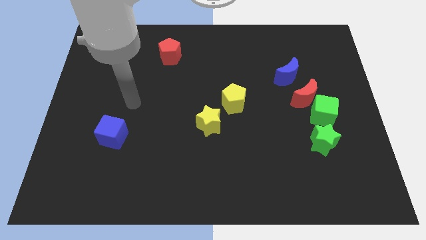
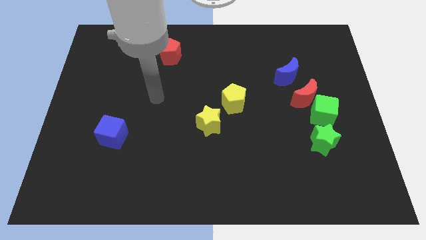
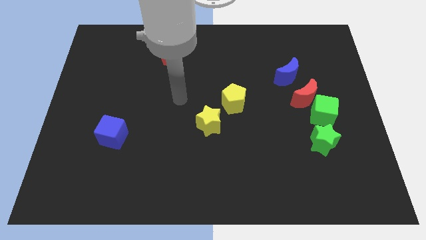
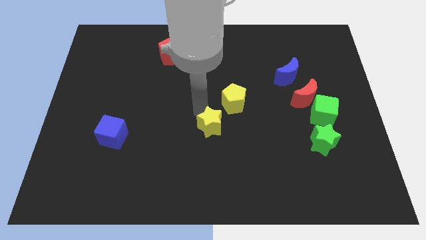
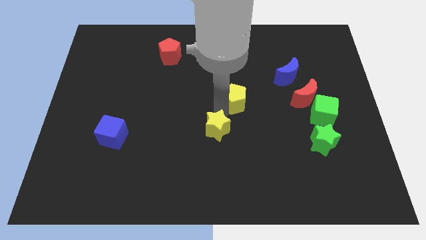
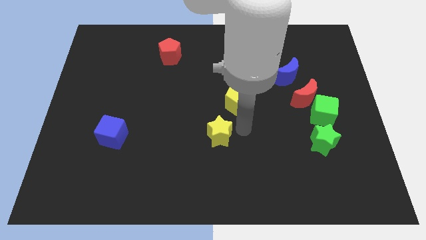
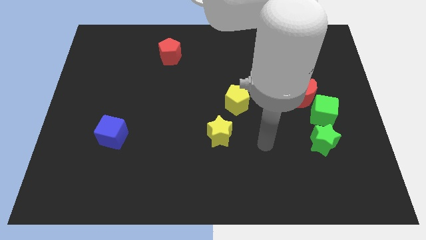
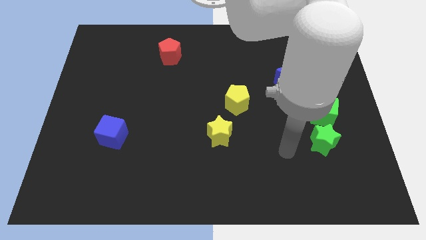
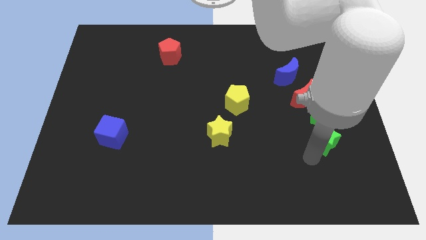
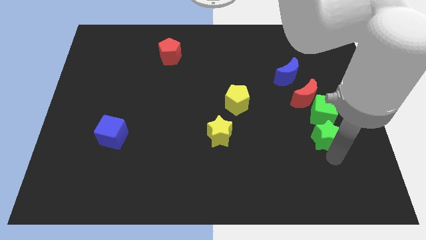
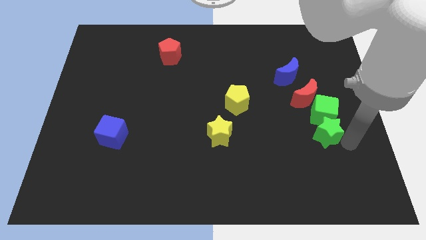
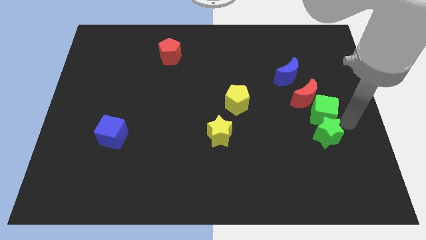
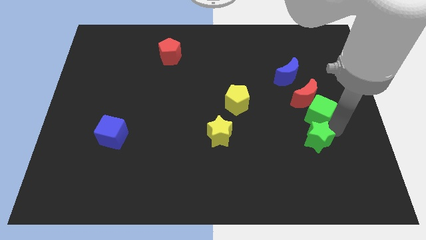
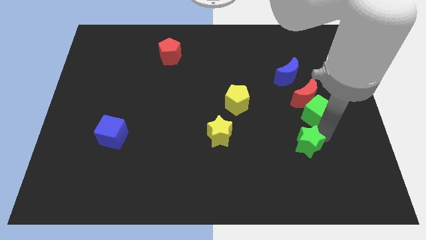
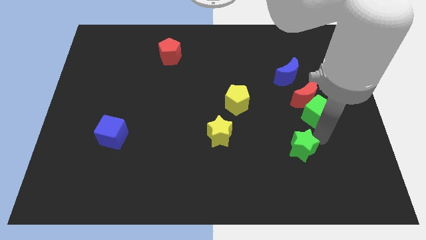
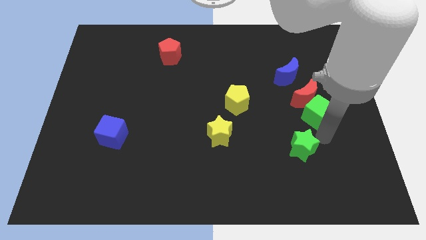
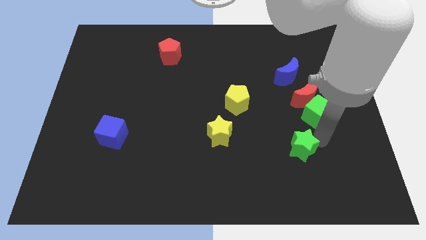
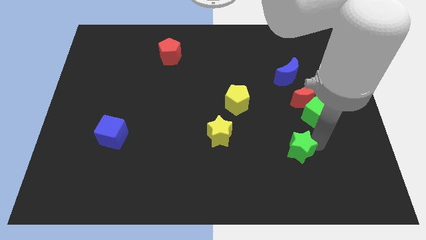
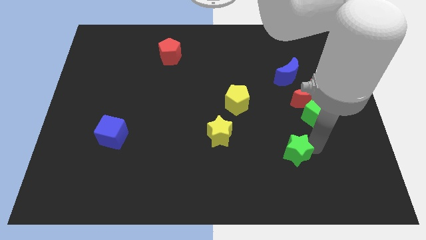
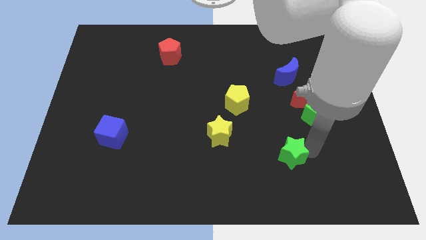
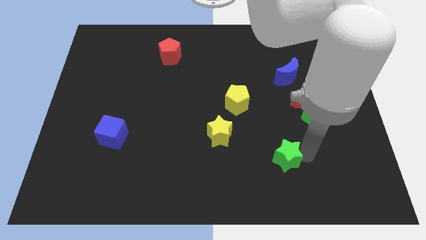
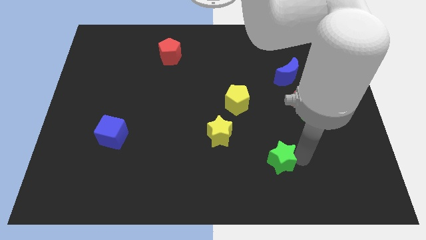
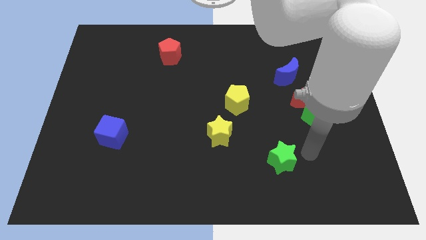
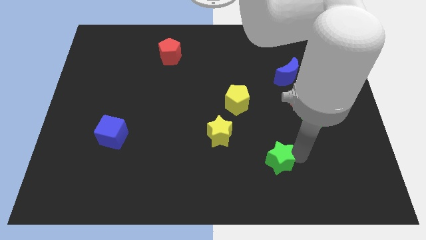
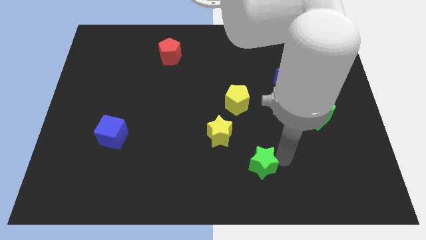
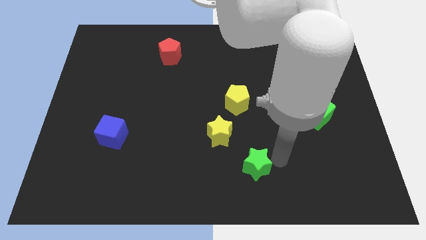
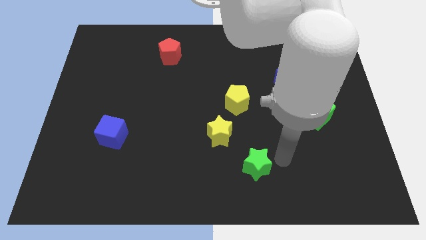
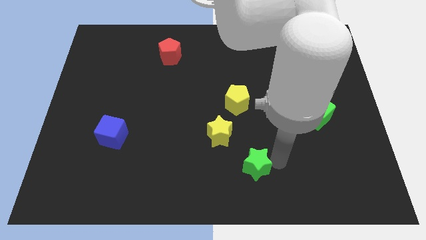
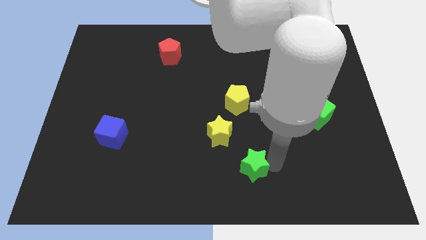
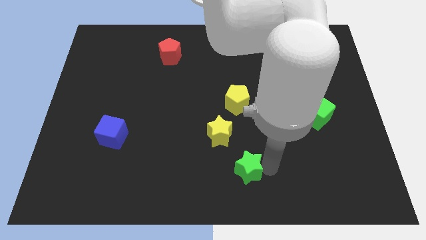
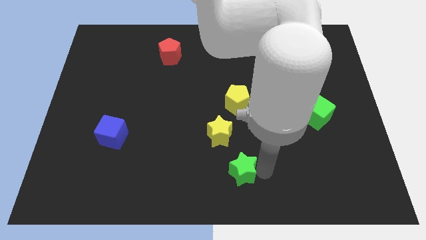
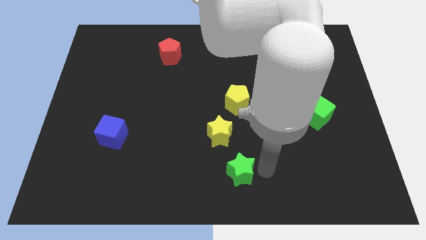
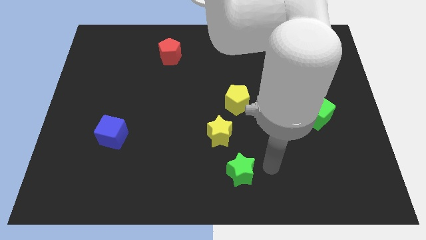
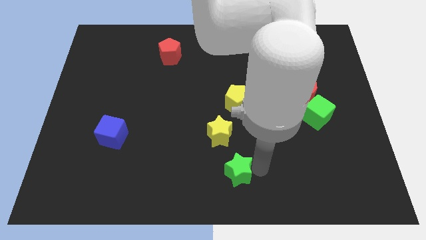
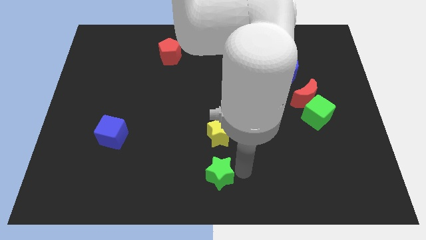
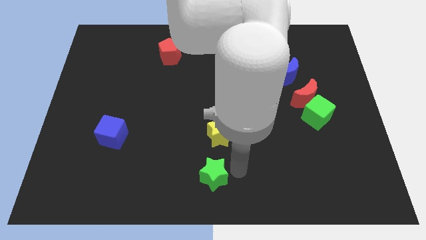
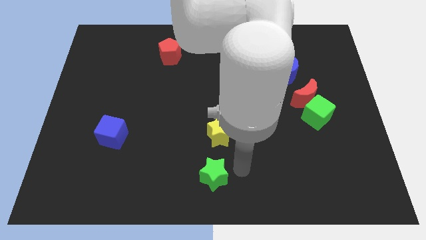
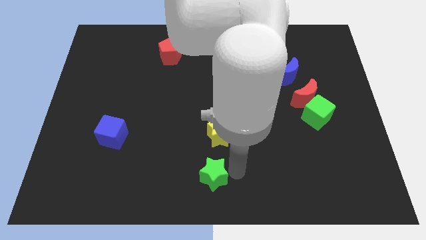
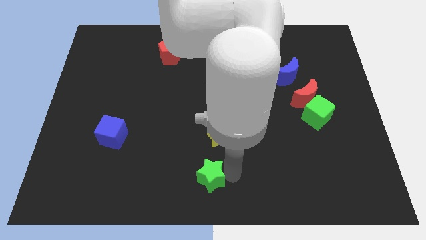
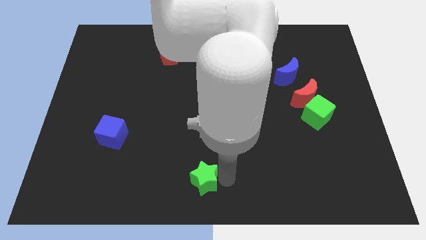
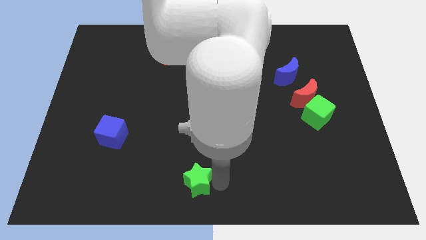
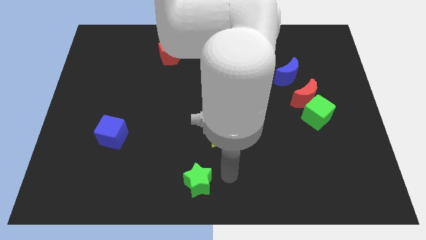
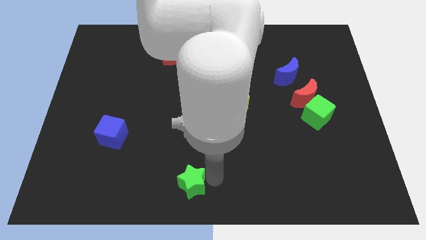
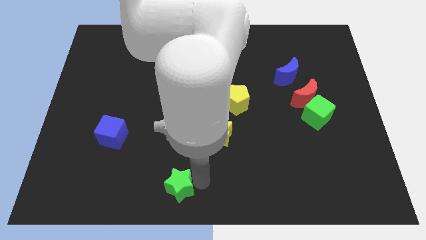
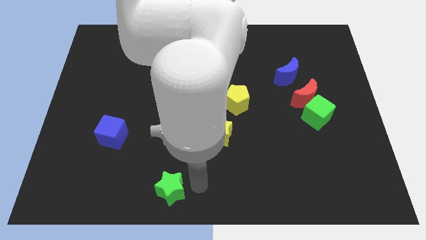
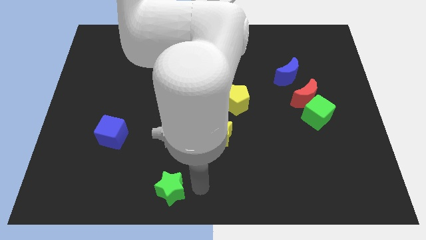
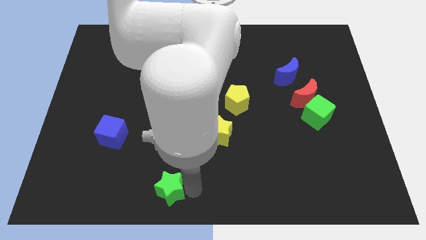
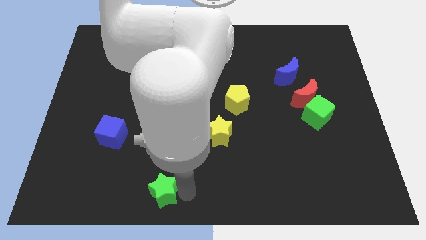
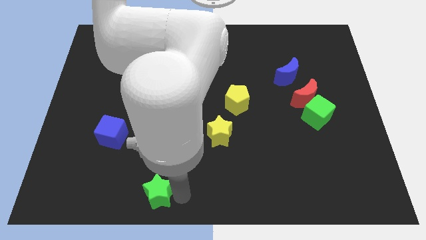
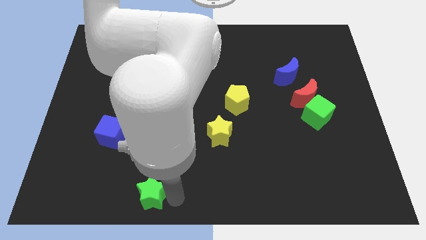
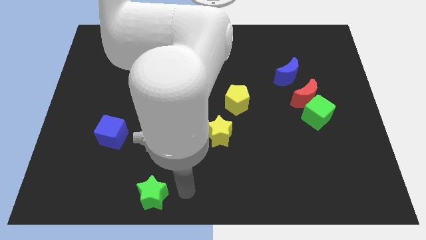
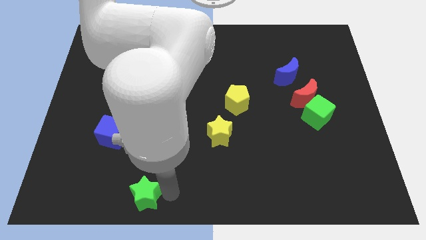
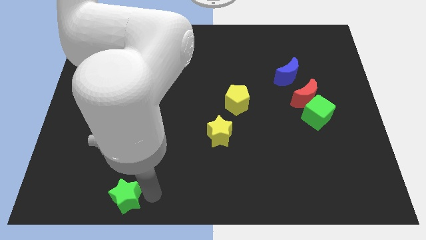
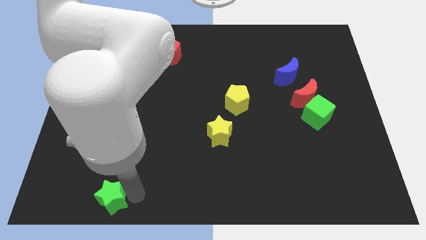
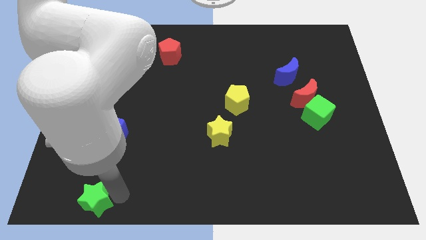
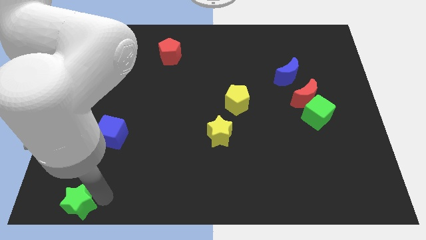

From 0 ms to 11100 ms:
move the green star to the lower left corner

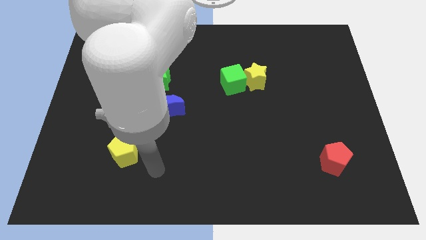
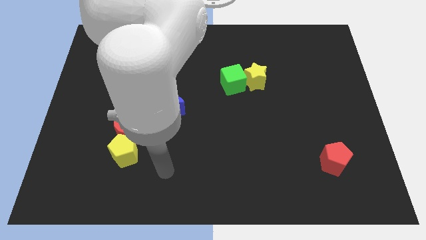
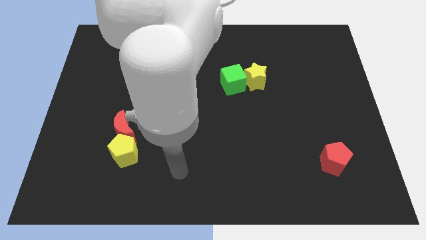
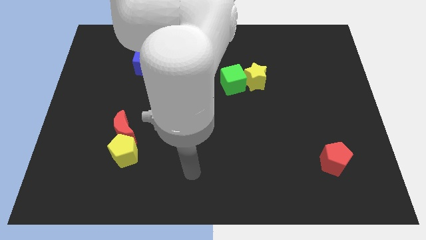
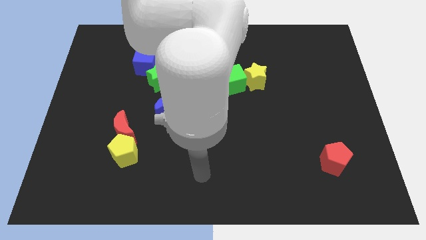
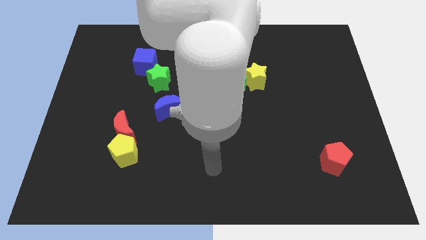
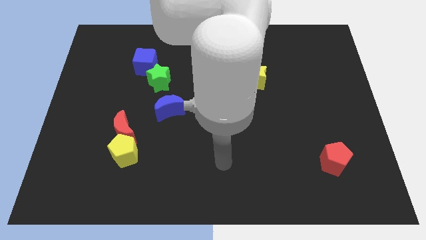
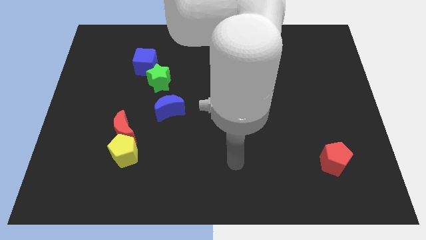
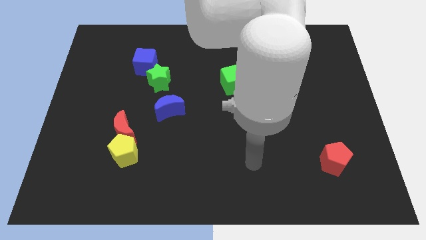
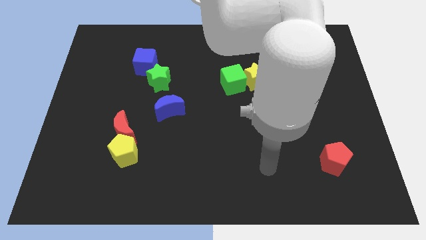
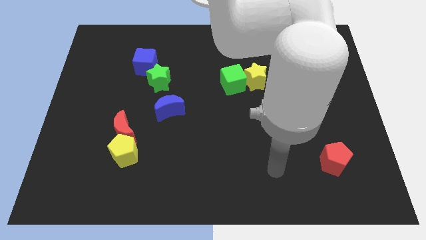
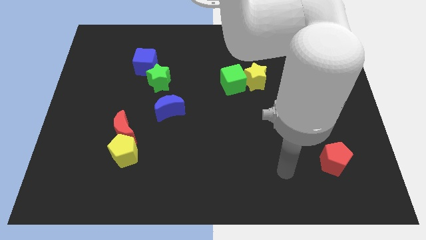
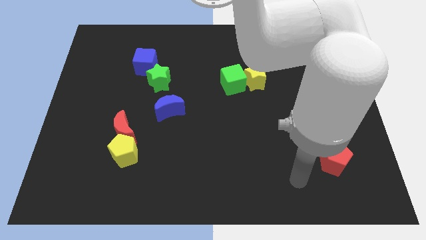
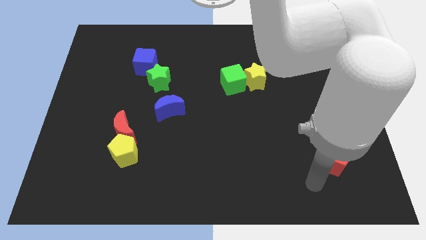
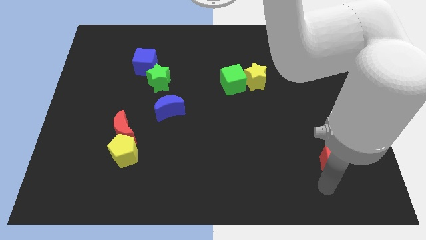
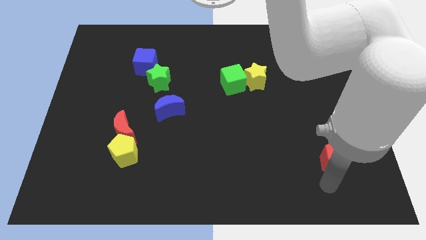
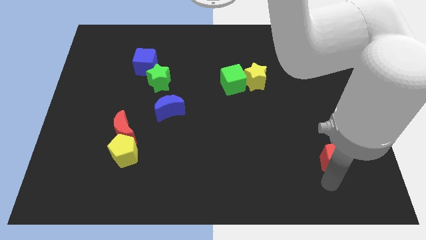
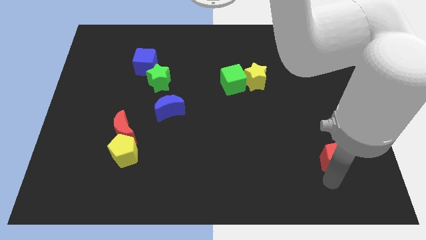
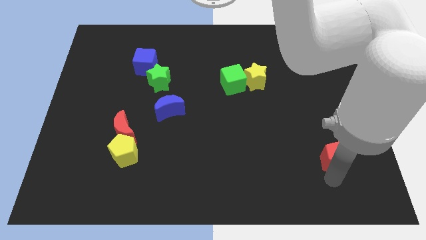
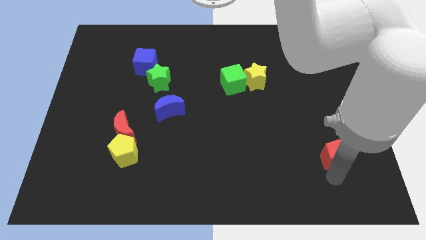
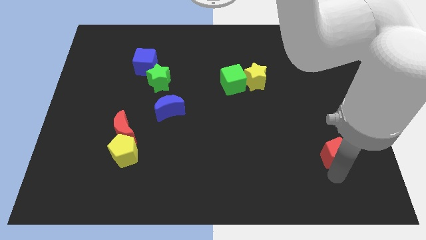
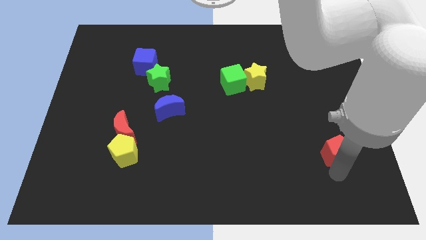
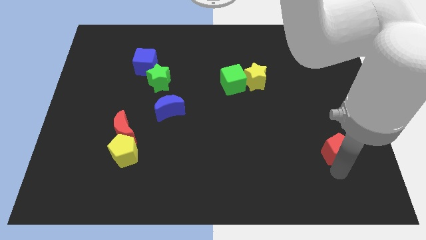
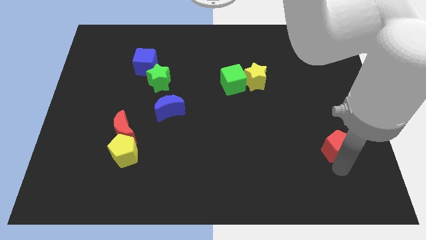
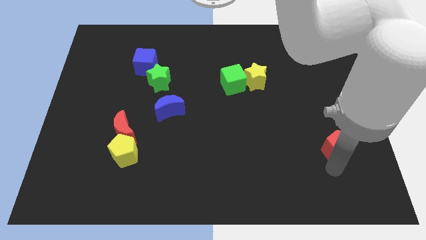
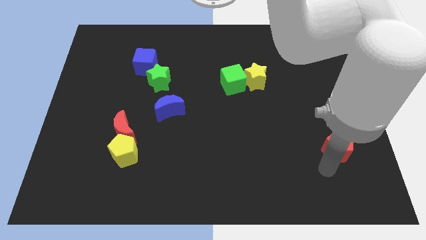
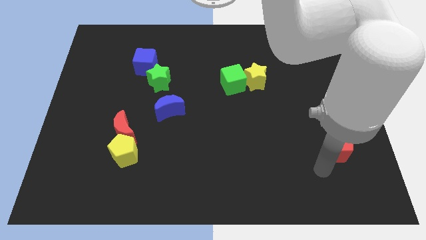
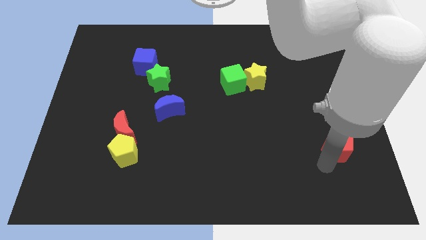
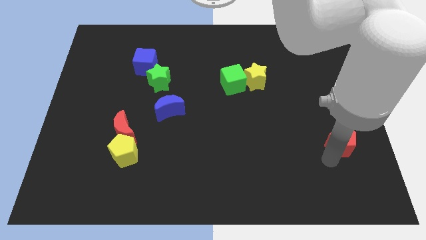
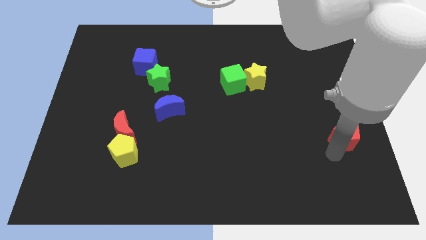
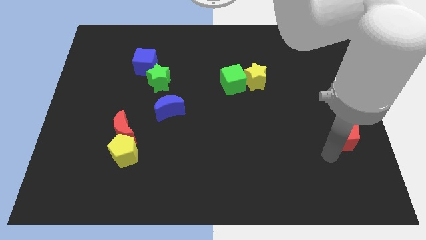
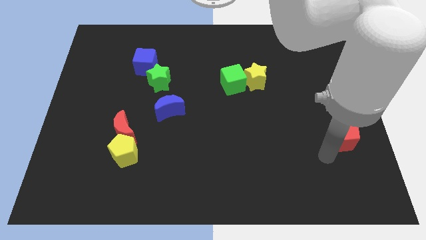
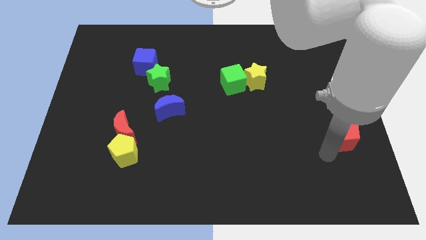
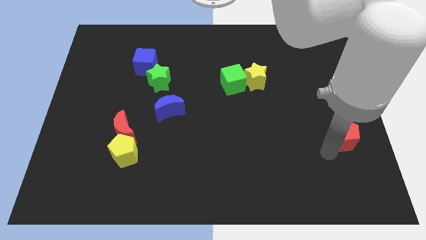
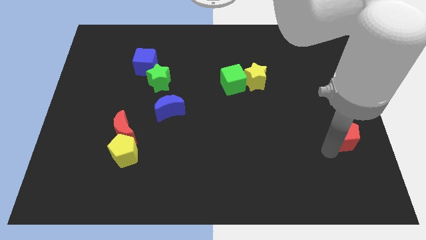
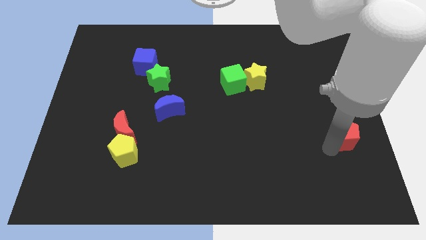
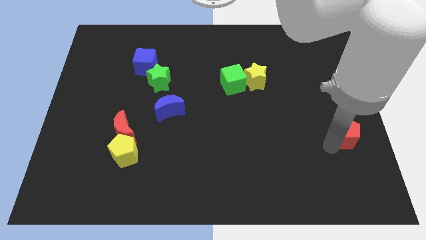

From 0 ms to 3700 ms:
slide the red pentagon to the right side
